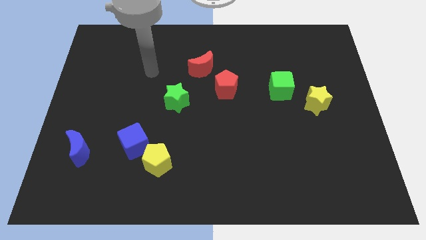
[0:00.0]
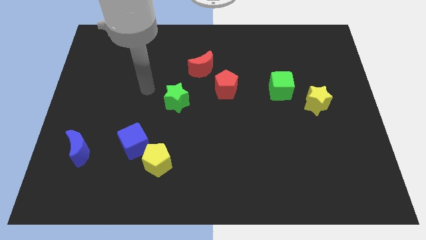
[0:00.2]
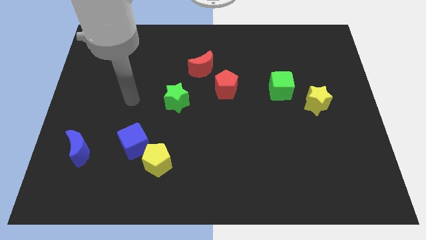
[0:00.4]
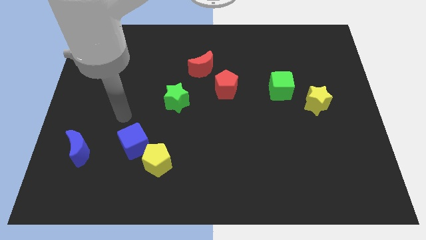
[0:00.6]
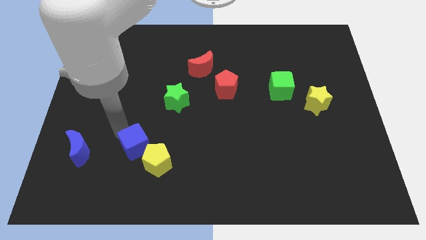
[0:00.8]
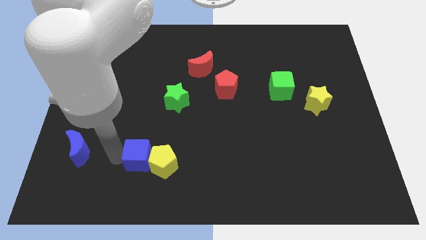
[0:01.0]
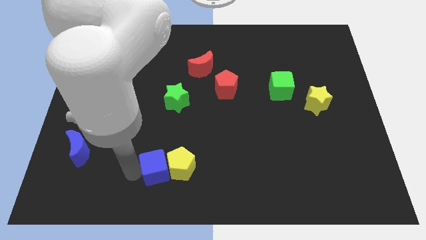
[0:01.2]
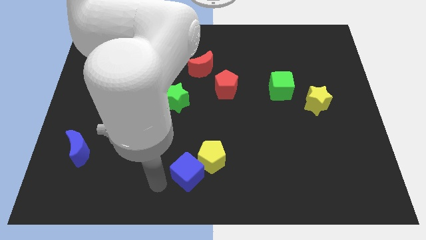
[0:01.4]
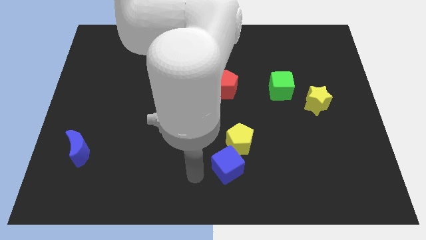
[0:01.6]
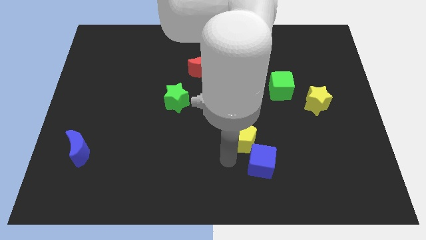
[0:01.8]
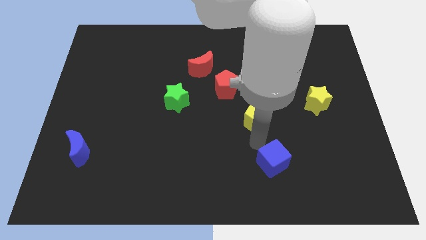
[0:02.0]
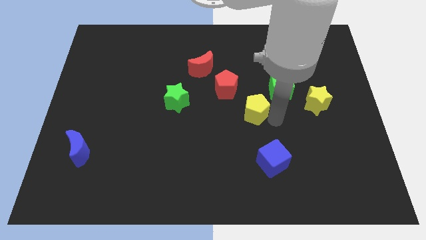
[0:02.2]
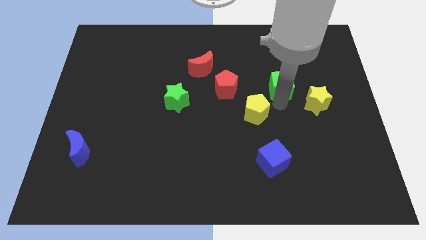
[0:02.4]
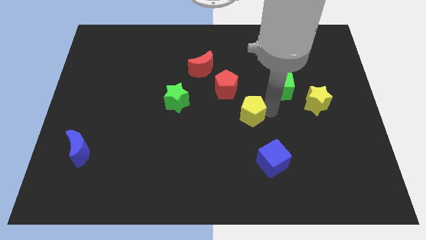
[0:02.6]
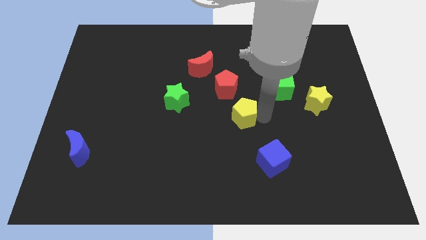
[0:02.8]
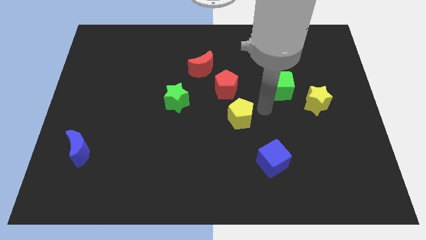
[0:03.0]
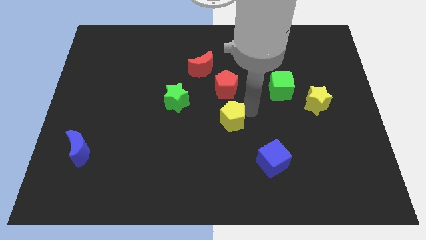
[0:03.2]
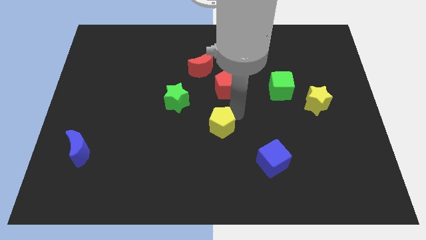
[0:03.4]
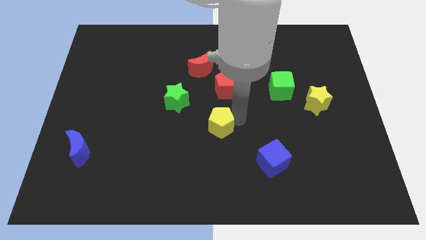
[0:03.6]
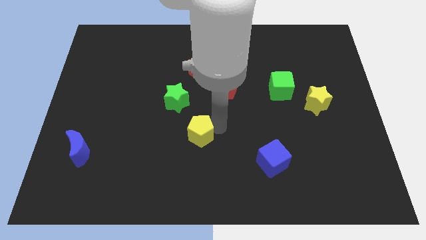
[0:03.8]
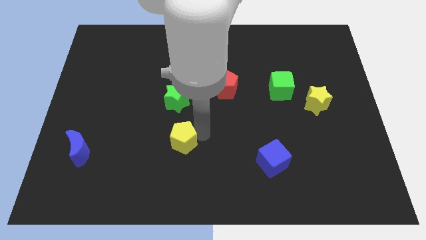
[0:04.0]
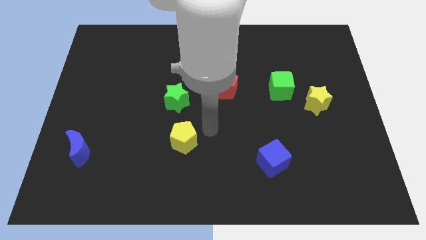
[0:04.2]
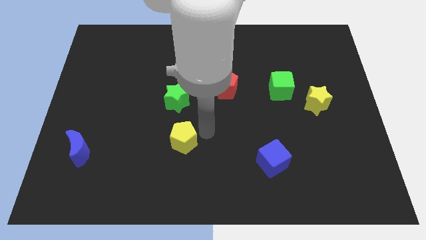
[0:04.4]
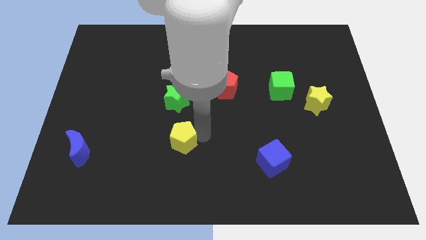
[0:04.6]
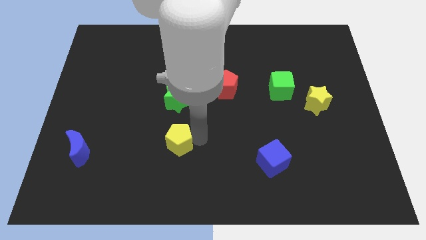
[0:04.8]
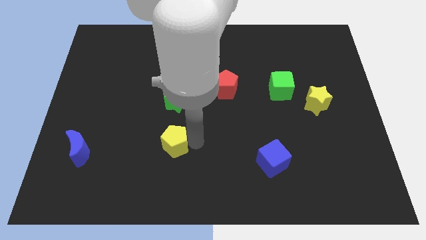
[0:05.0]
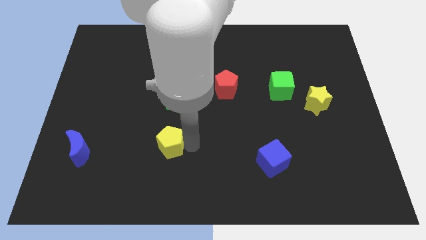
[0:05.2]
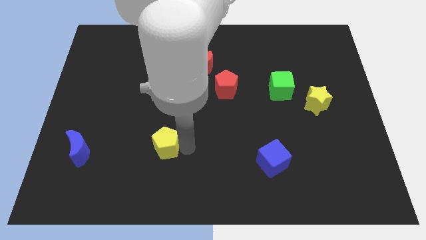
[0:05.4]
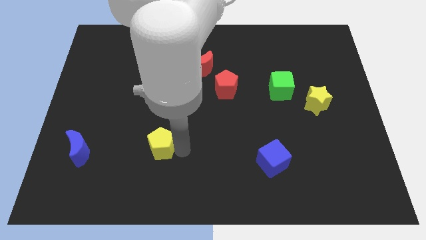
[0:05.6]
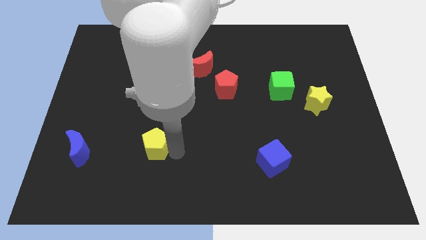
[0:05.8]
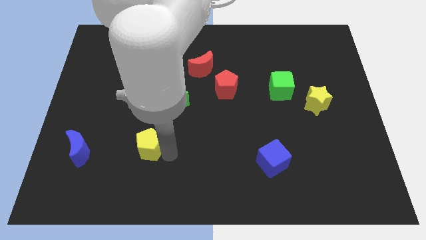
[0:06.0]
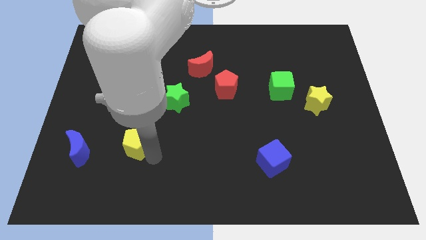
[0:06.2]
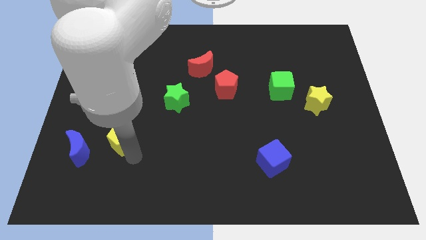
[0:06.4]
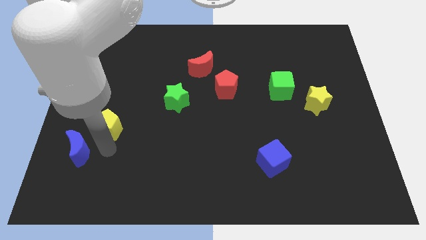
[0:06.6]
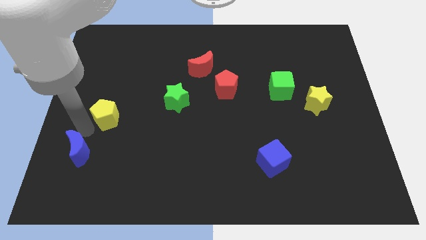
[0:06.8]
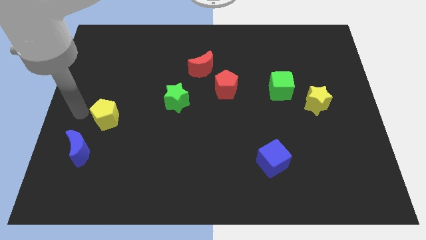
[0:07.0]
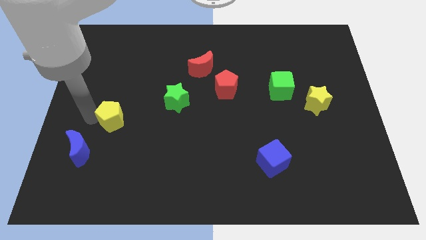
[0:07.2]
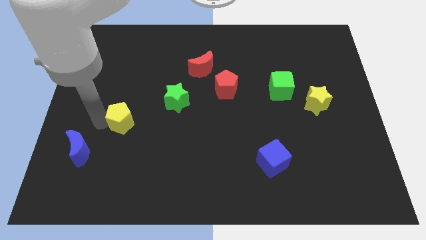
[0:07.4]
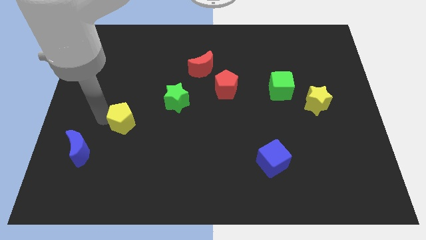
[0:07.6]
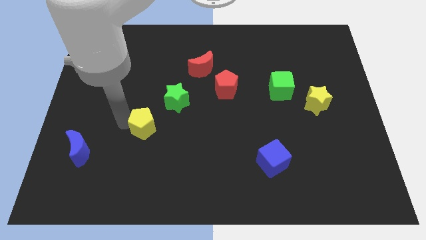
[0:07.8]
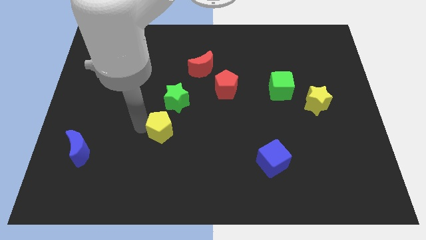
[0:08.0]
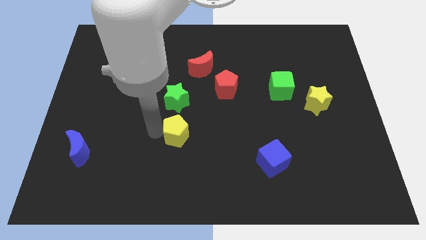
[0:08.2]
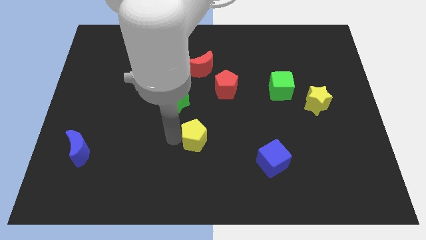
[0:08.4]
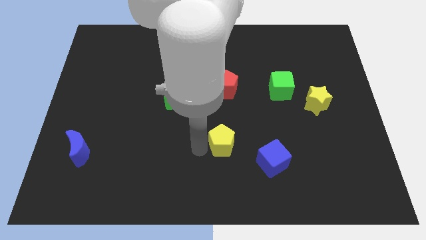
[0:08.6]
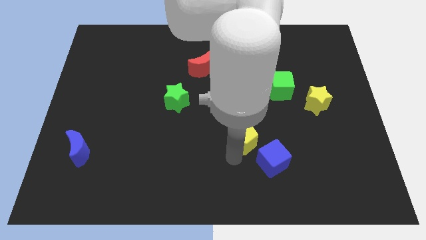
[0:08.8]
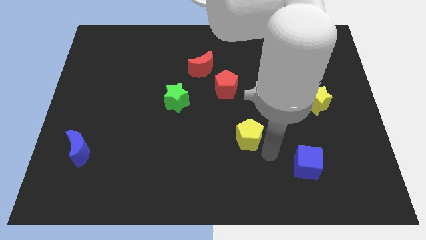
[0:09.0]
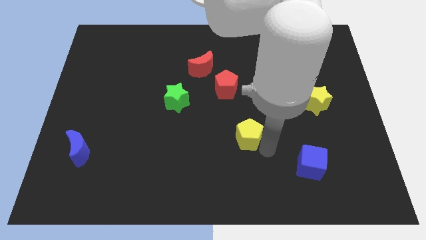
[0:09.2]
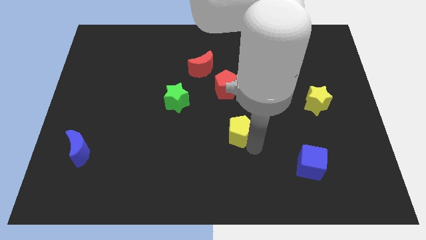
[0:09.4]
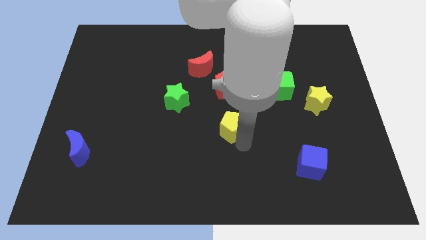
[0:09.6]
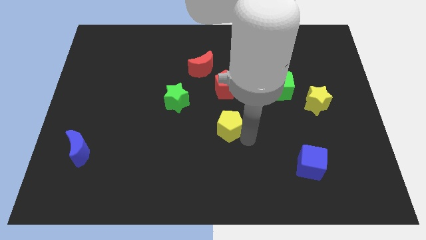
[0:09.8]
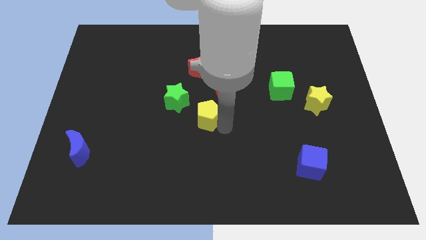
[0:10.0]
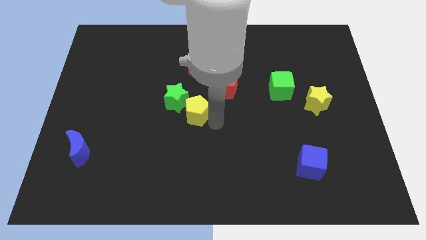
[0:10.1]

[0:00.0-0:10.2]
push the yellow pentagon close to the green star

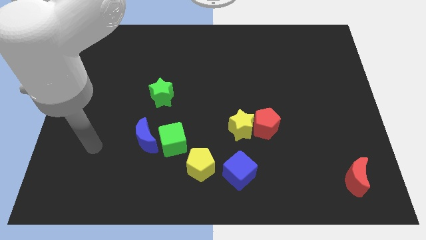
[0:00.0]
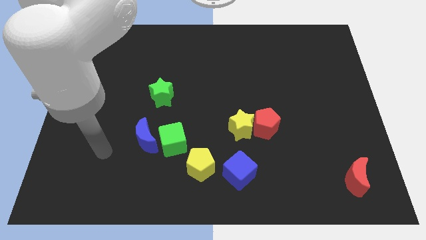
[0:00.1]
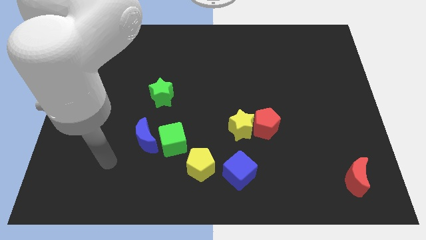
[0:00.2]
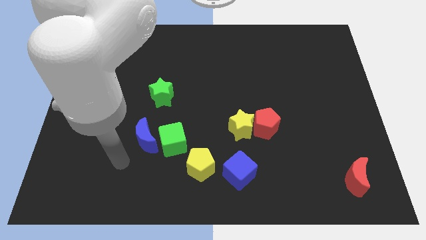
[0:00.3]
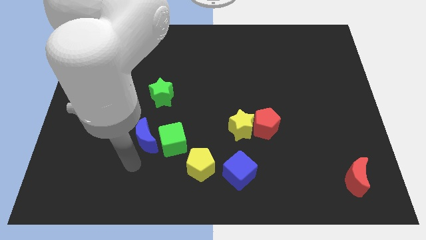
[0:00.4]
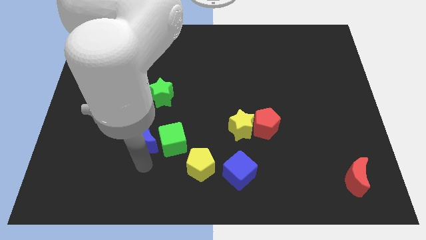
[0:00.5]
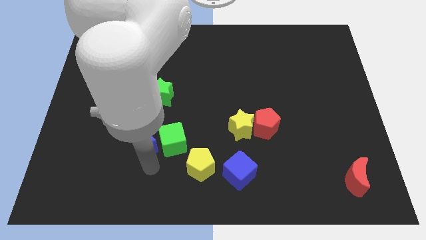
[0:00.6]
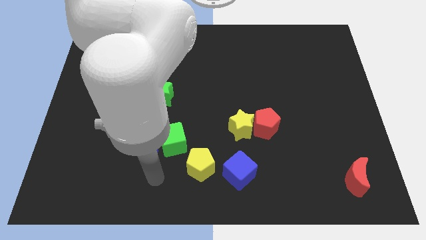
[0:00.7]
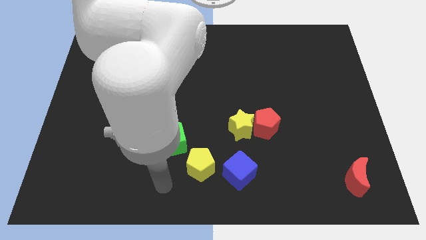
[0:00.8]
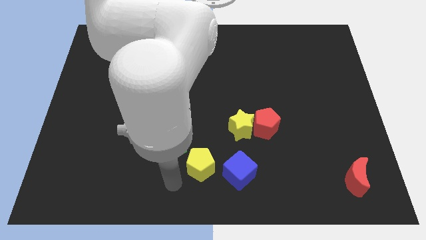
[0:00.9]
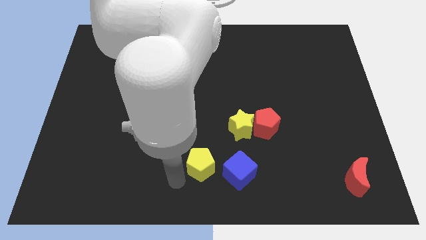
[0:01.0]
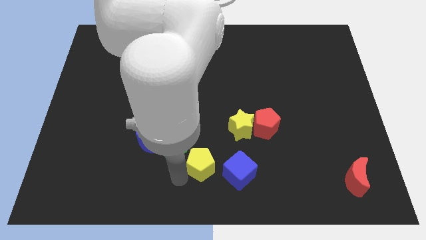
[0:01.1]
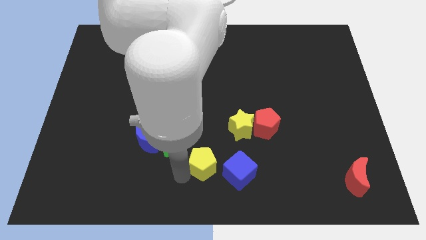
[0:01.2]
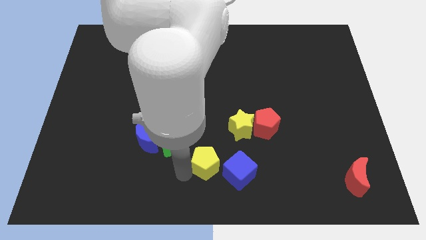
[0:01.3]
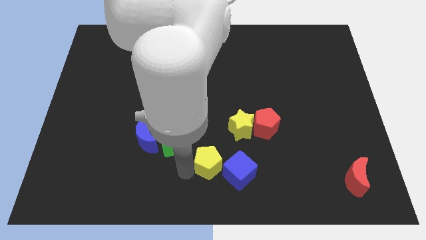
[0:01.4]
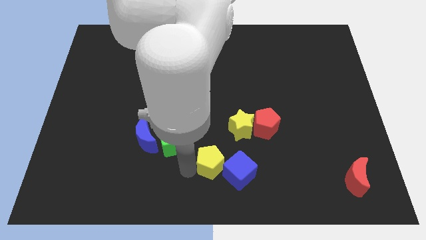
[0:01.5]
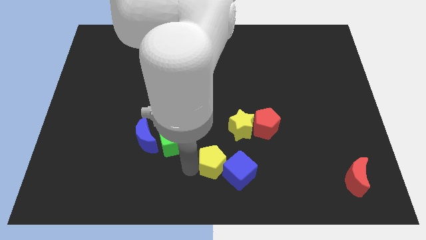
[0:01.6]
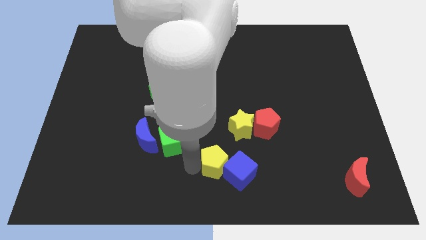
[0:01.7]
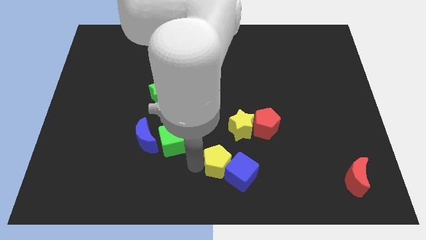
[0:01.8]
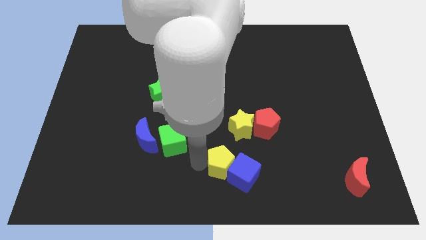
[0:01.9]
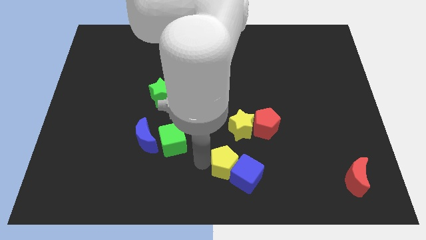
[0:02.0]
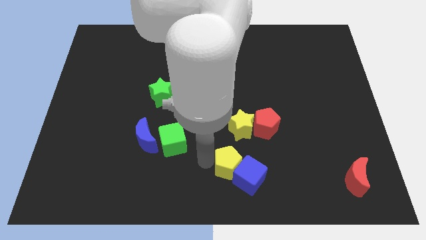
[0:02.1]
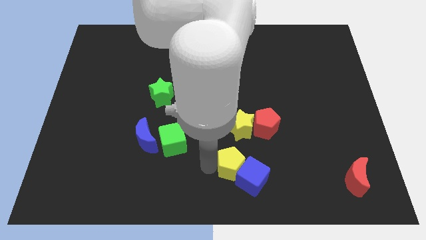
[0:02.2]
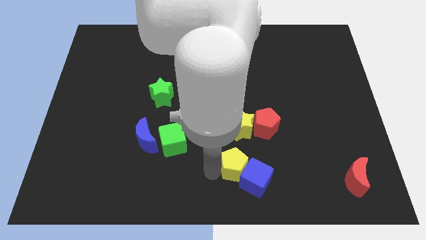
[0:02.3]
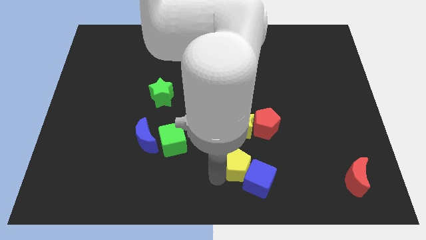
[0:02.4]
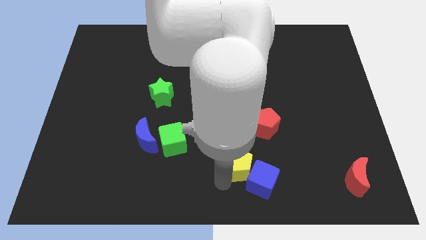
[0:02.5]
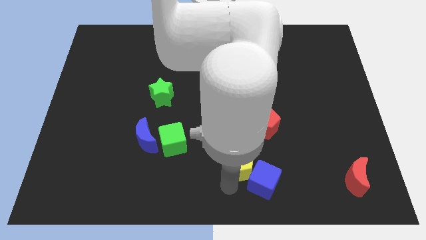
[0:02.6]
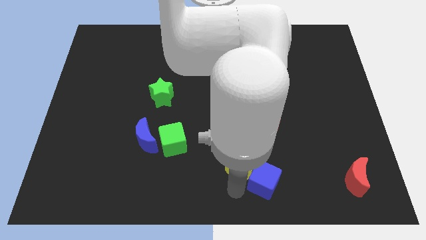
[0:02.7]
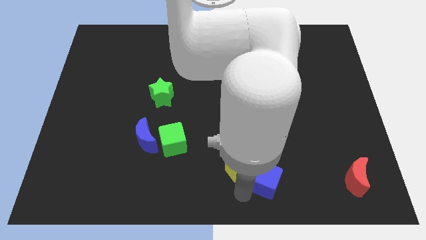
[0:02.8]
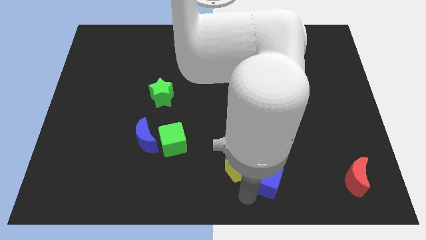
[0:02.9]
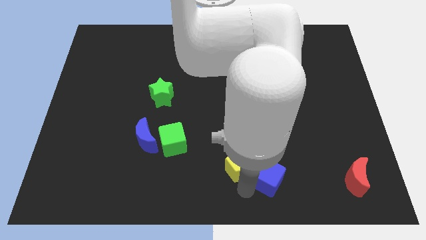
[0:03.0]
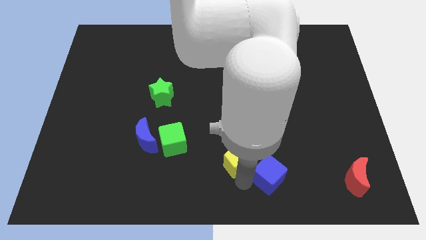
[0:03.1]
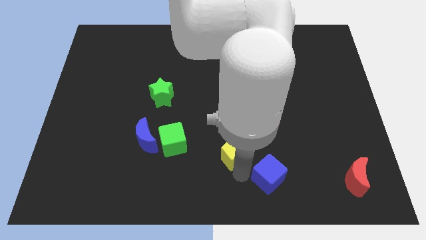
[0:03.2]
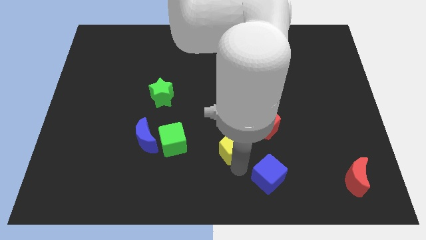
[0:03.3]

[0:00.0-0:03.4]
move the yellow pentagon next to the yellow star
